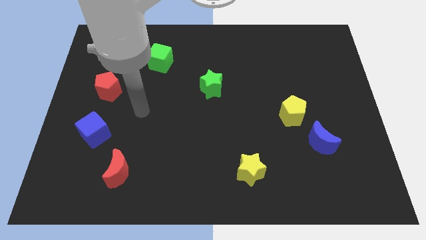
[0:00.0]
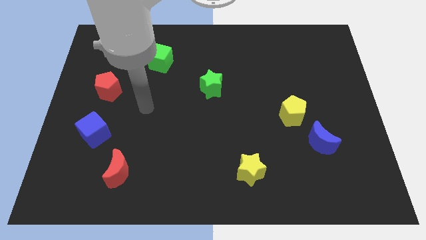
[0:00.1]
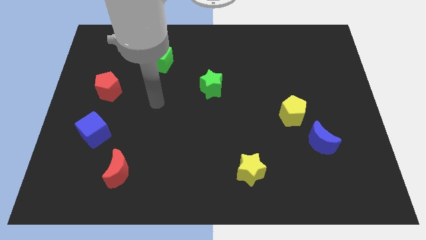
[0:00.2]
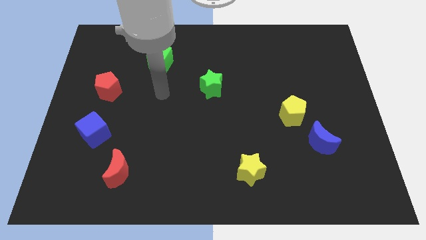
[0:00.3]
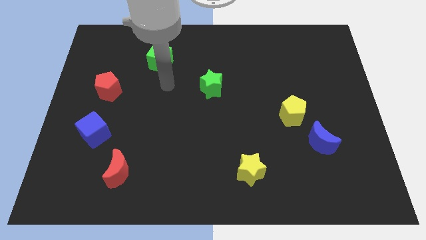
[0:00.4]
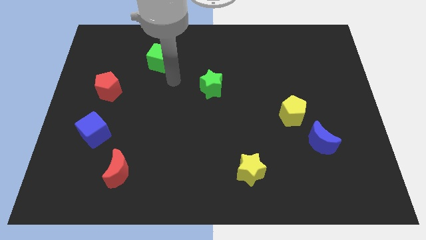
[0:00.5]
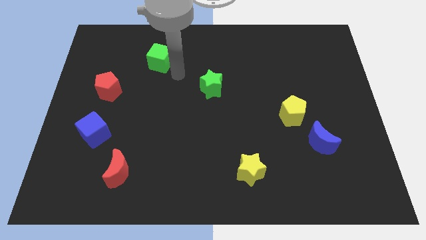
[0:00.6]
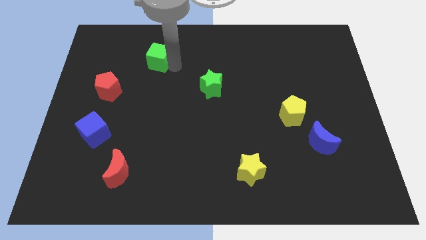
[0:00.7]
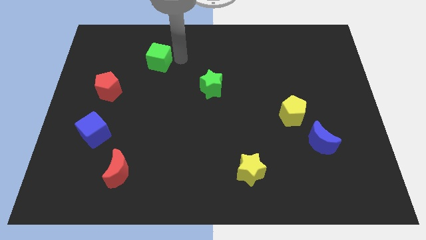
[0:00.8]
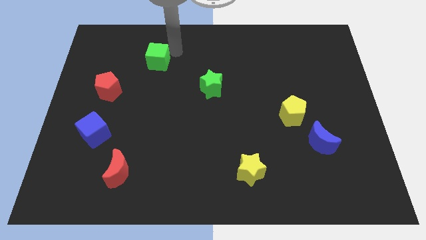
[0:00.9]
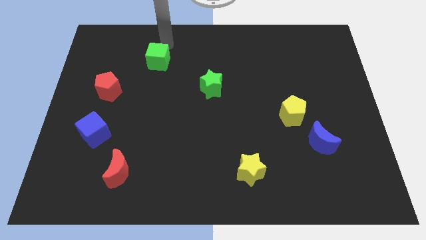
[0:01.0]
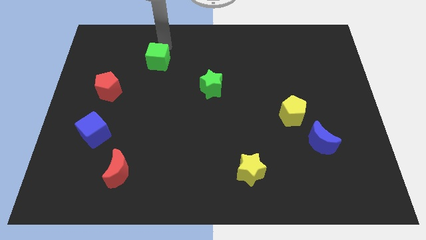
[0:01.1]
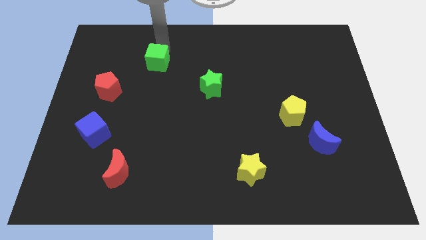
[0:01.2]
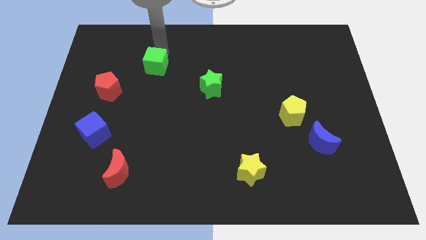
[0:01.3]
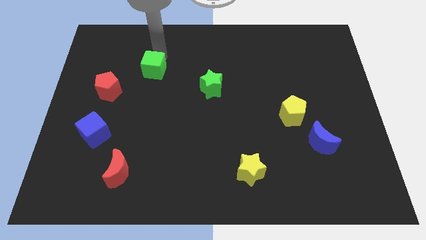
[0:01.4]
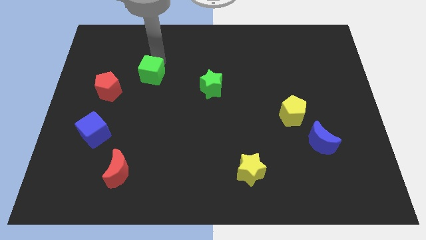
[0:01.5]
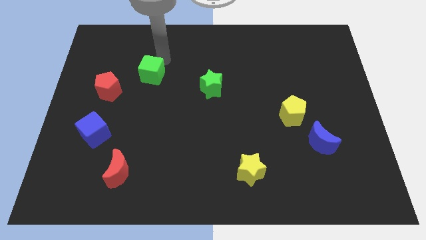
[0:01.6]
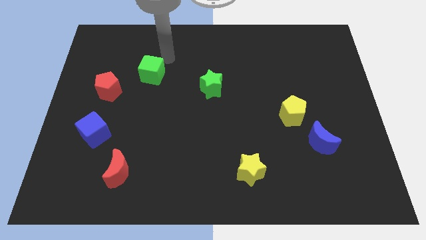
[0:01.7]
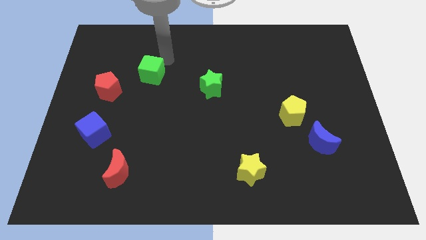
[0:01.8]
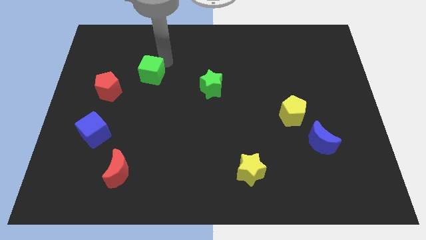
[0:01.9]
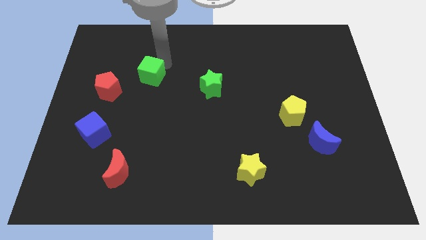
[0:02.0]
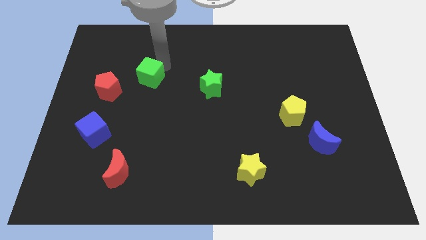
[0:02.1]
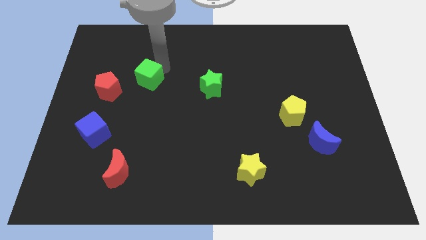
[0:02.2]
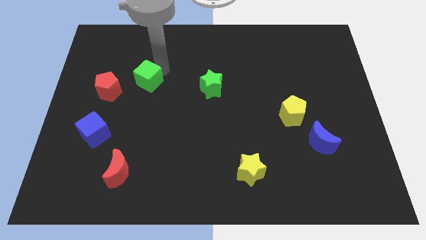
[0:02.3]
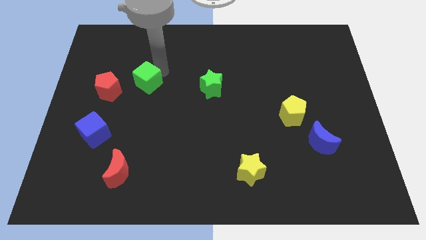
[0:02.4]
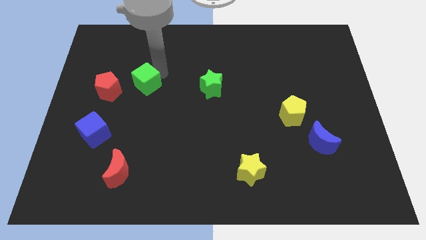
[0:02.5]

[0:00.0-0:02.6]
push the green cube a bit downwards and to the left

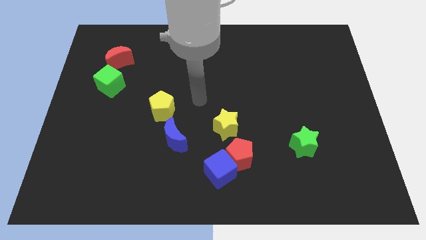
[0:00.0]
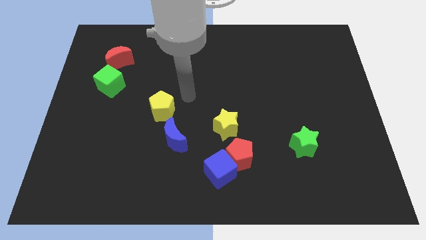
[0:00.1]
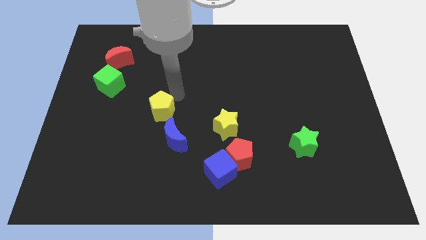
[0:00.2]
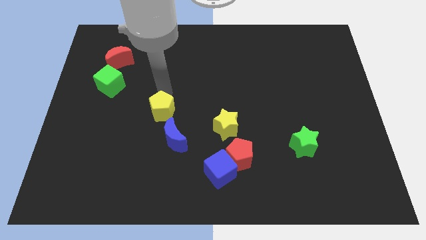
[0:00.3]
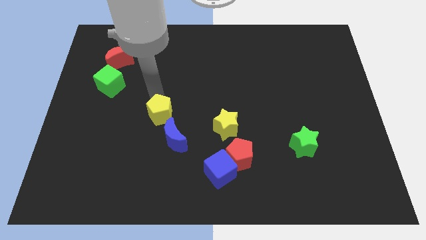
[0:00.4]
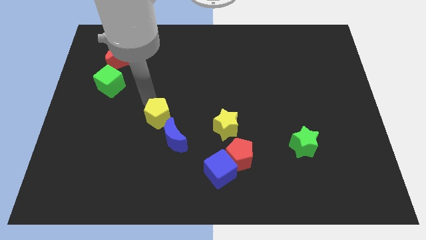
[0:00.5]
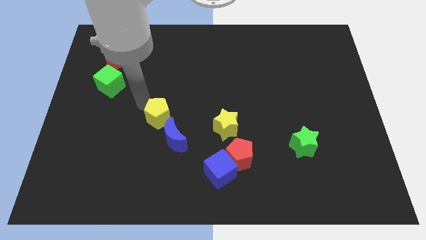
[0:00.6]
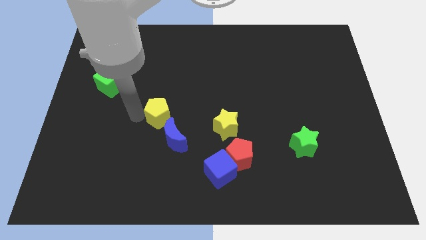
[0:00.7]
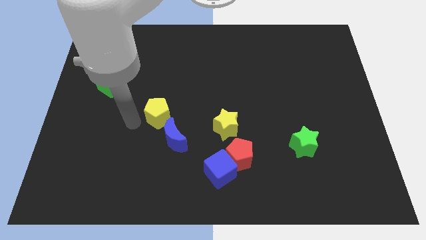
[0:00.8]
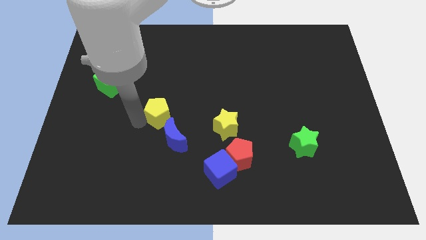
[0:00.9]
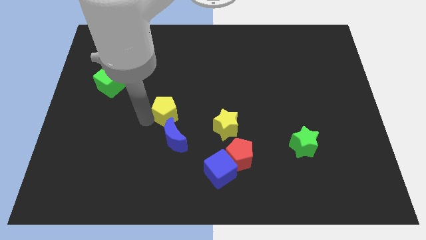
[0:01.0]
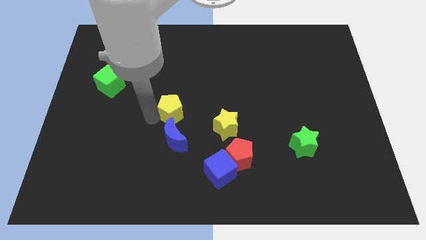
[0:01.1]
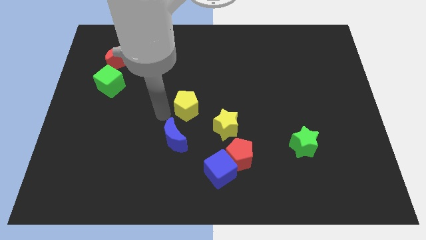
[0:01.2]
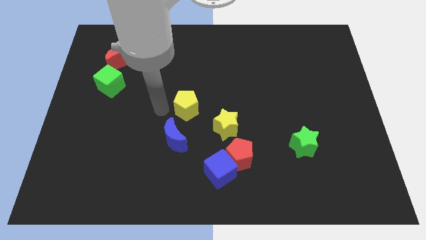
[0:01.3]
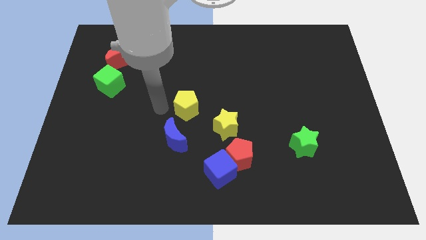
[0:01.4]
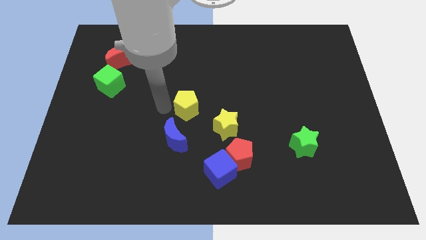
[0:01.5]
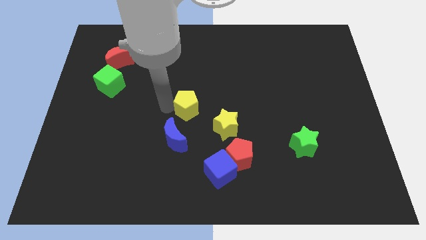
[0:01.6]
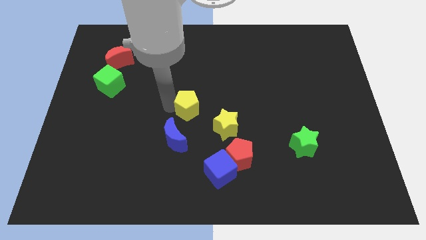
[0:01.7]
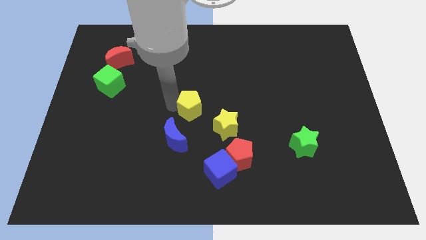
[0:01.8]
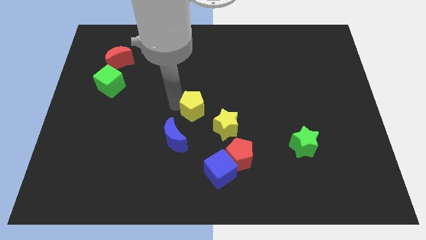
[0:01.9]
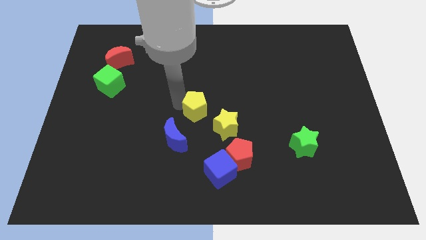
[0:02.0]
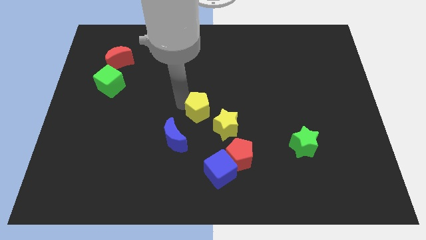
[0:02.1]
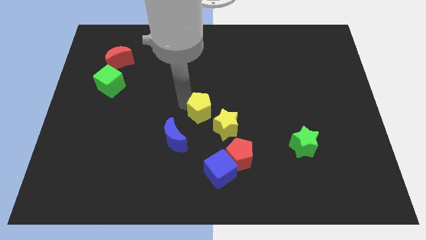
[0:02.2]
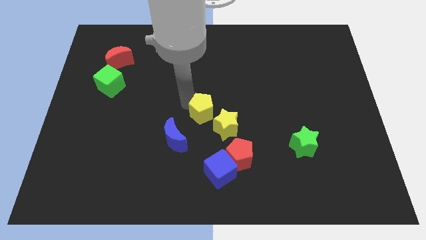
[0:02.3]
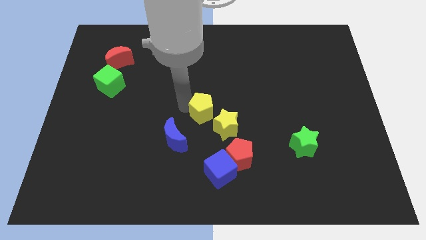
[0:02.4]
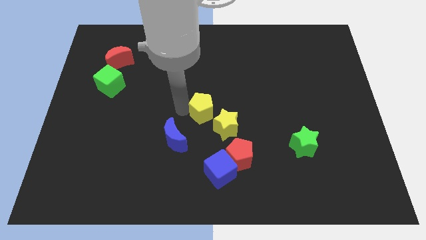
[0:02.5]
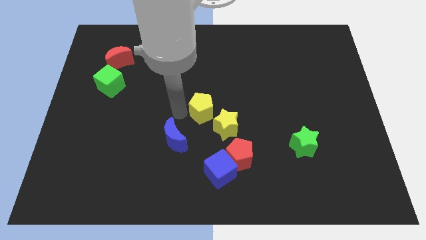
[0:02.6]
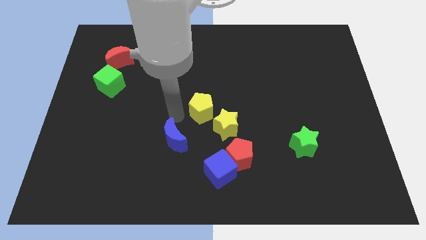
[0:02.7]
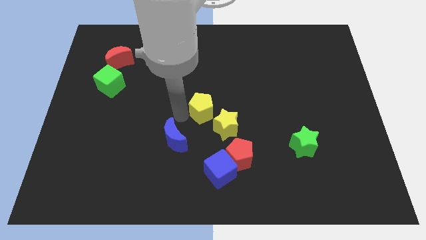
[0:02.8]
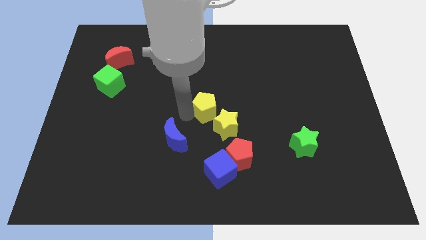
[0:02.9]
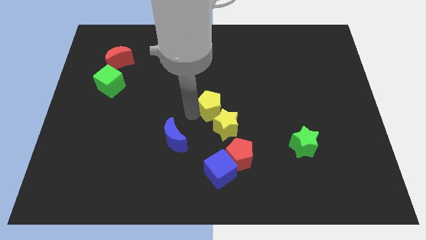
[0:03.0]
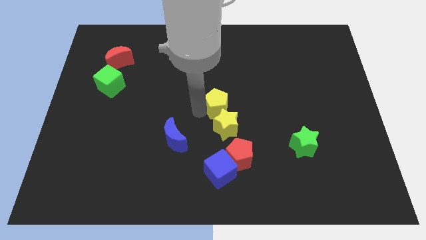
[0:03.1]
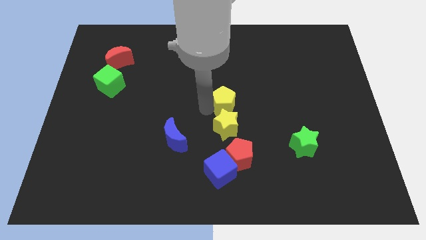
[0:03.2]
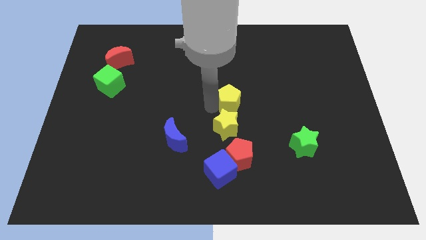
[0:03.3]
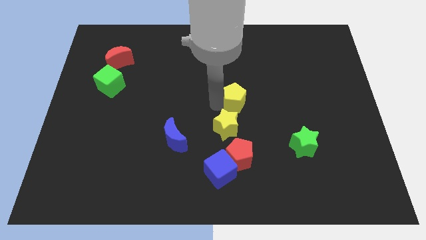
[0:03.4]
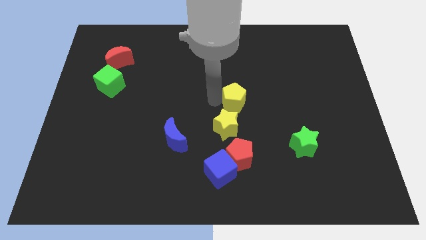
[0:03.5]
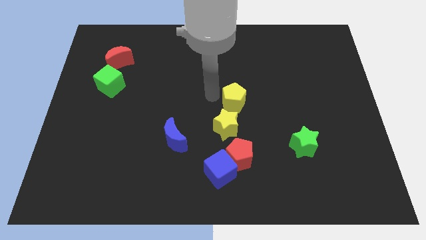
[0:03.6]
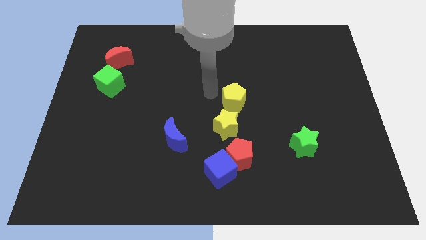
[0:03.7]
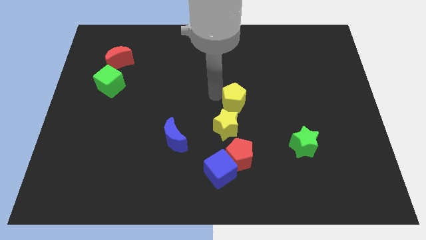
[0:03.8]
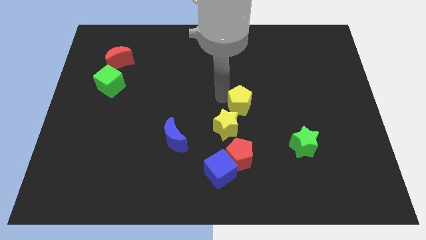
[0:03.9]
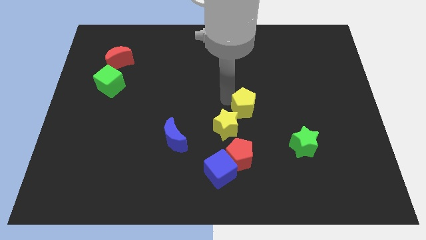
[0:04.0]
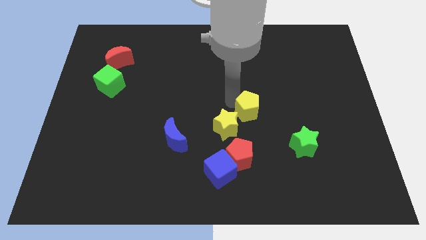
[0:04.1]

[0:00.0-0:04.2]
push the yellow pentagon right

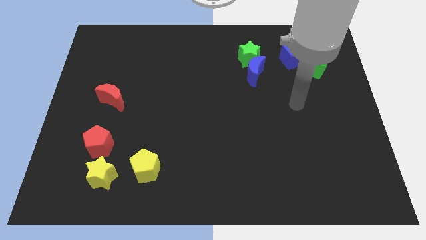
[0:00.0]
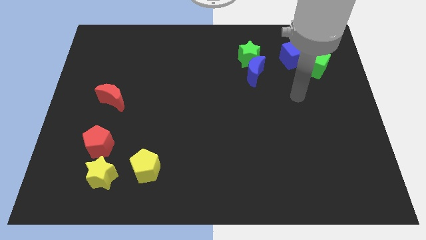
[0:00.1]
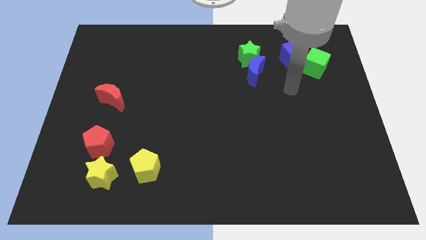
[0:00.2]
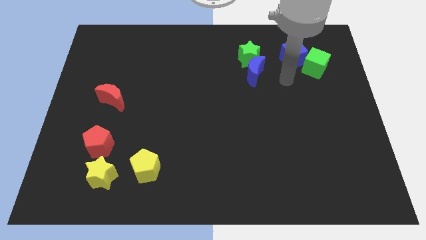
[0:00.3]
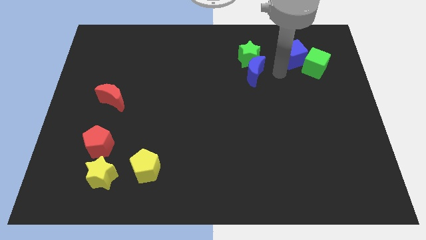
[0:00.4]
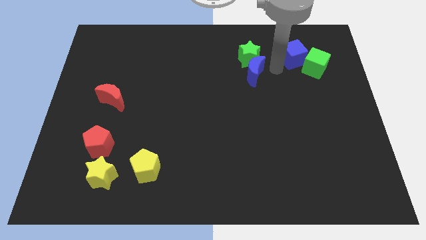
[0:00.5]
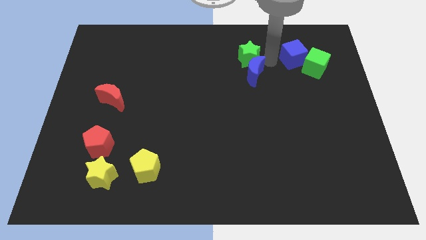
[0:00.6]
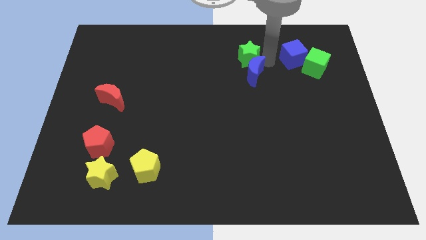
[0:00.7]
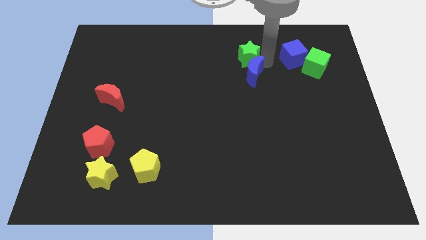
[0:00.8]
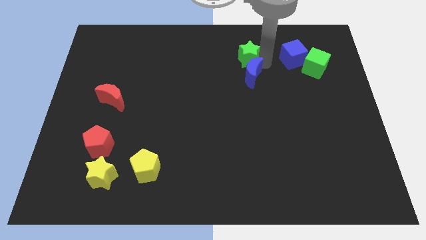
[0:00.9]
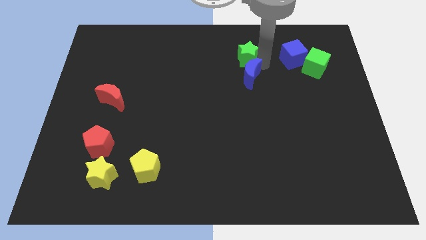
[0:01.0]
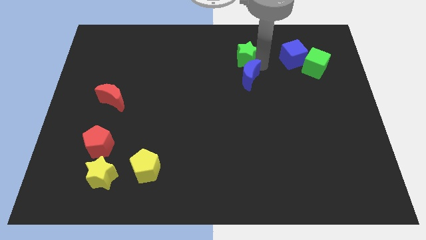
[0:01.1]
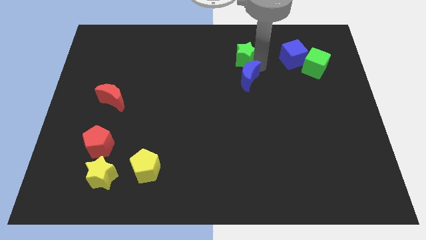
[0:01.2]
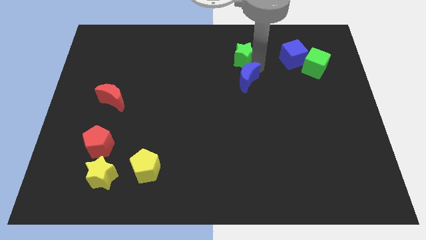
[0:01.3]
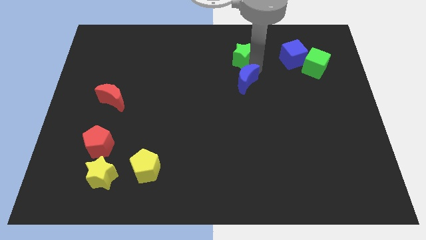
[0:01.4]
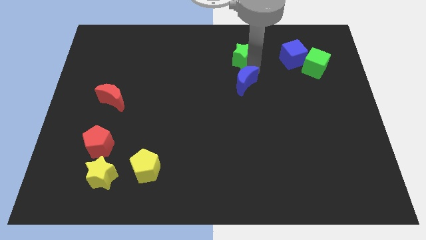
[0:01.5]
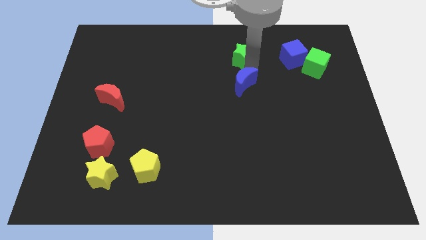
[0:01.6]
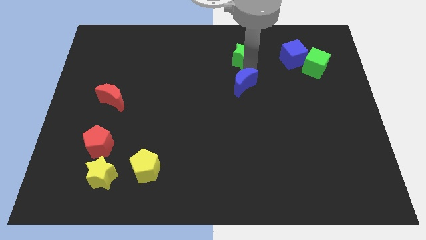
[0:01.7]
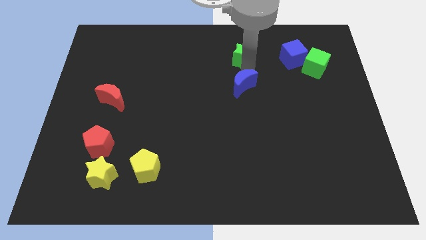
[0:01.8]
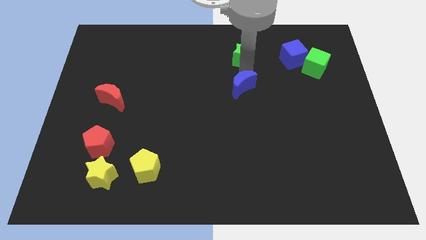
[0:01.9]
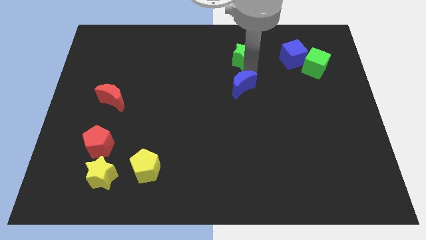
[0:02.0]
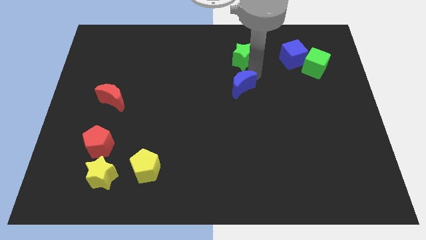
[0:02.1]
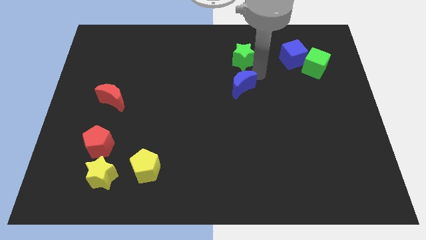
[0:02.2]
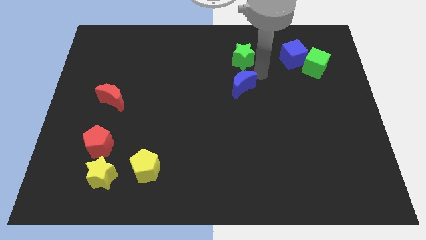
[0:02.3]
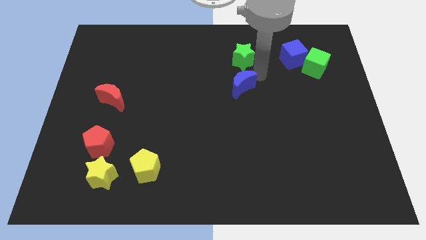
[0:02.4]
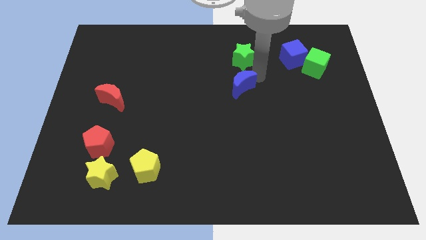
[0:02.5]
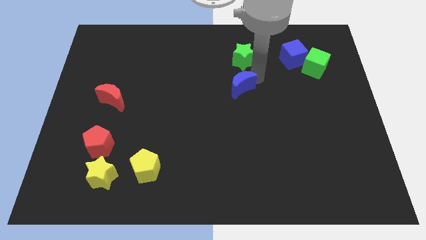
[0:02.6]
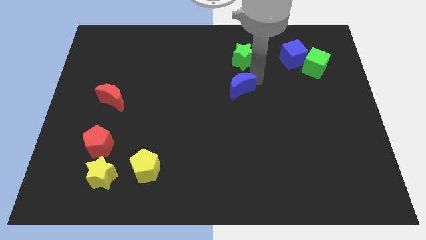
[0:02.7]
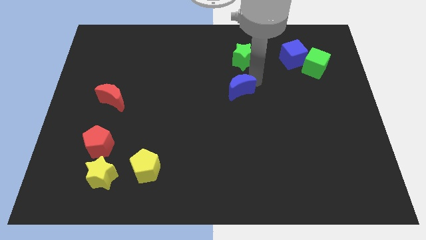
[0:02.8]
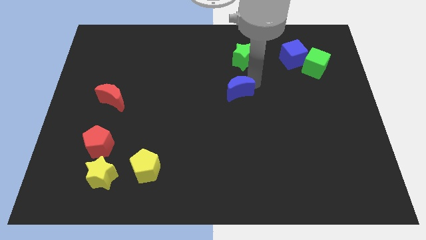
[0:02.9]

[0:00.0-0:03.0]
slide the blue moon a little diagonally downwards and left
